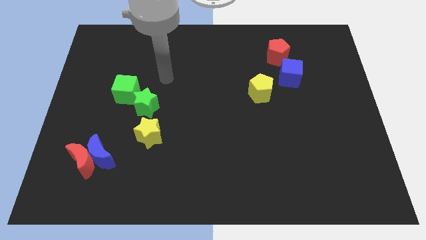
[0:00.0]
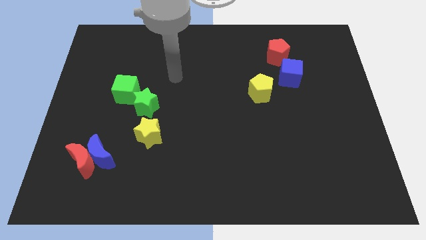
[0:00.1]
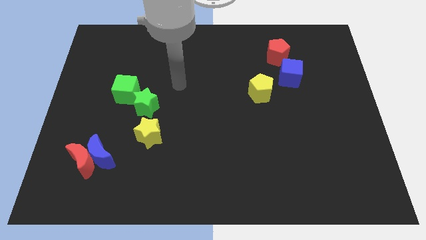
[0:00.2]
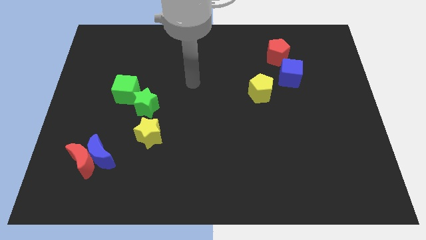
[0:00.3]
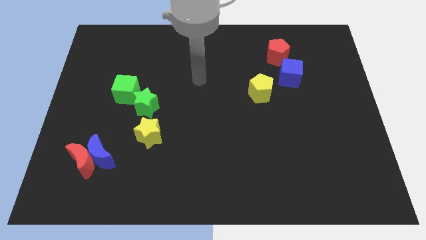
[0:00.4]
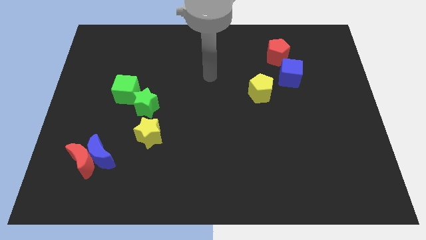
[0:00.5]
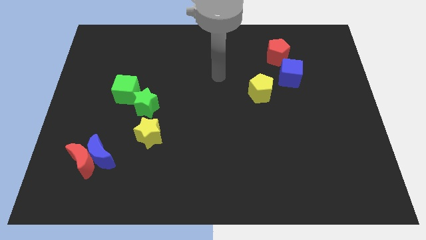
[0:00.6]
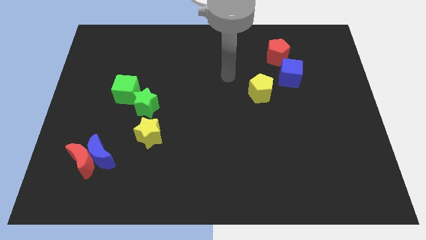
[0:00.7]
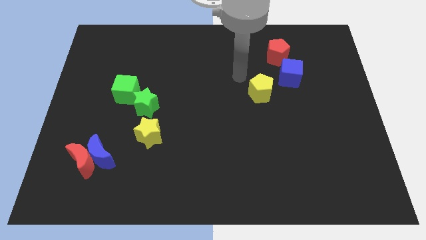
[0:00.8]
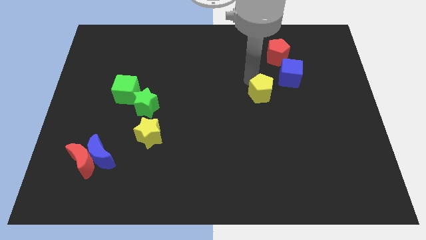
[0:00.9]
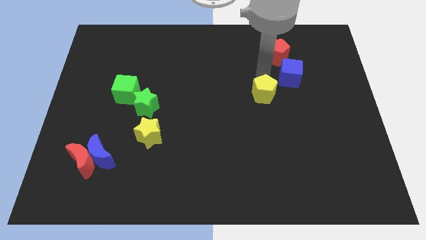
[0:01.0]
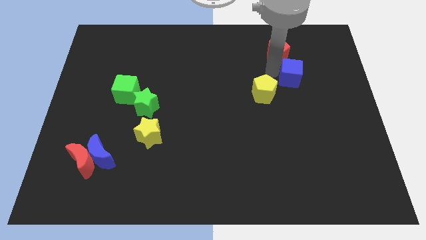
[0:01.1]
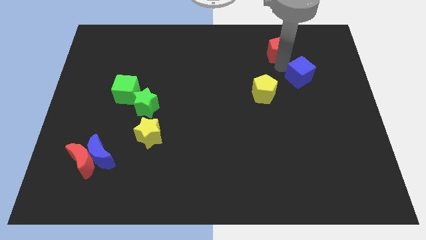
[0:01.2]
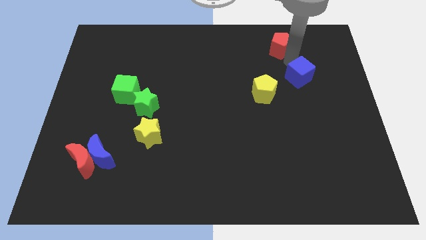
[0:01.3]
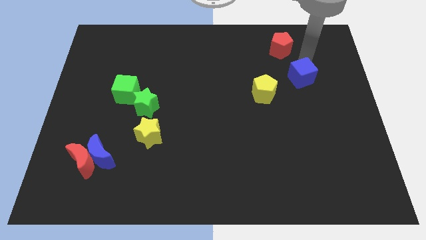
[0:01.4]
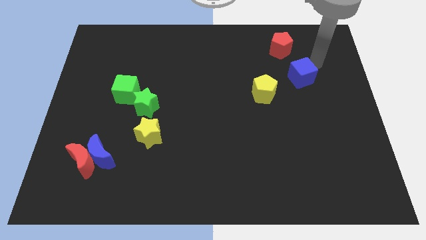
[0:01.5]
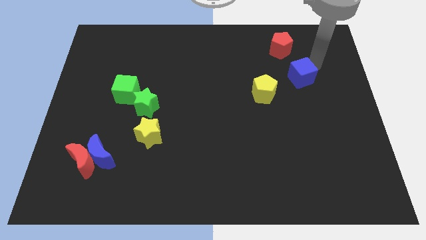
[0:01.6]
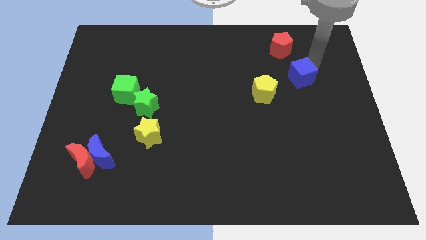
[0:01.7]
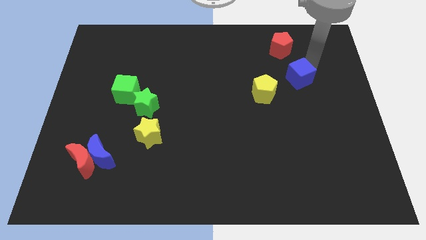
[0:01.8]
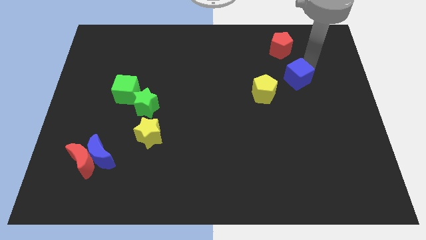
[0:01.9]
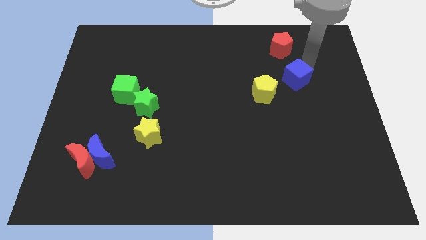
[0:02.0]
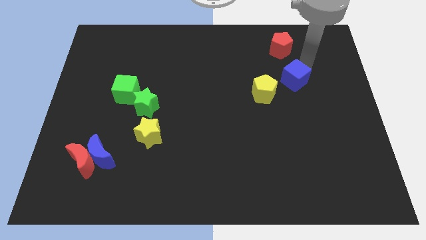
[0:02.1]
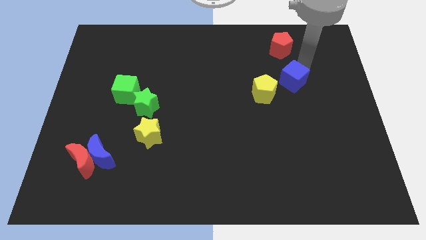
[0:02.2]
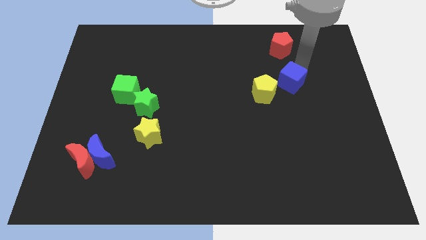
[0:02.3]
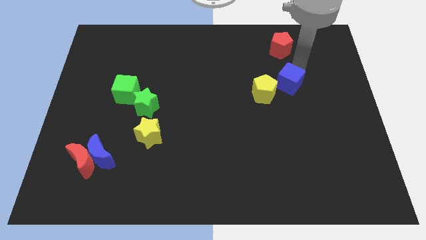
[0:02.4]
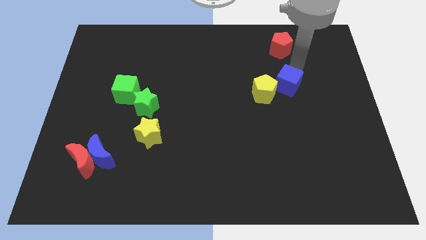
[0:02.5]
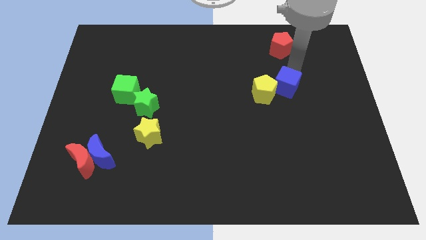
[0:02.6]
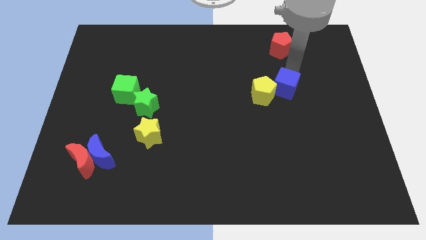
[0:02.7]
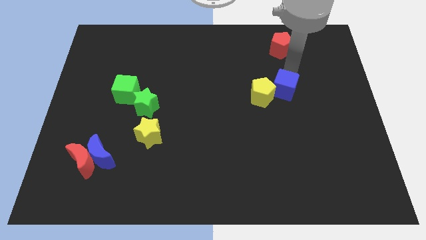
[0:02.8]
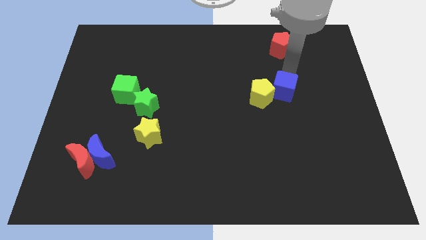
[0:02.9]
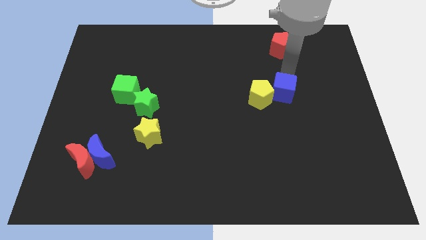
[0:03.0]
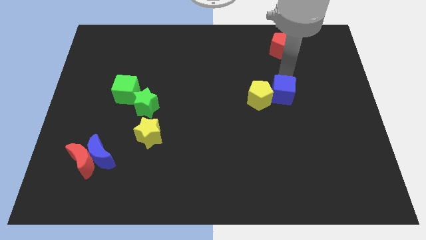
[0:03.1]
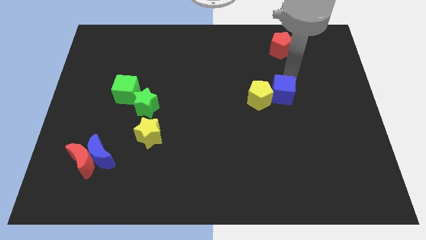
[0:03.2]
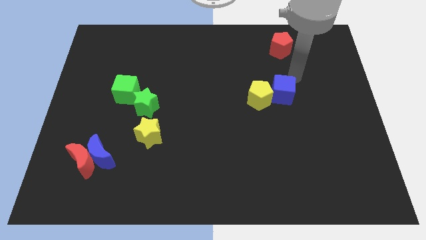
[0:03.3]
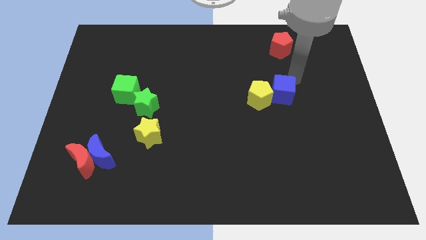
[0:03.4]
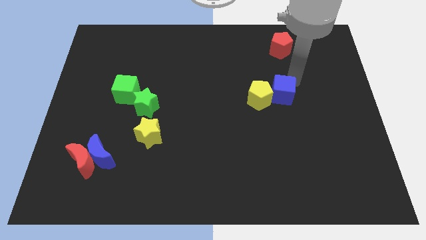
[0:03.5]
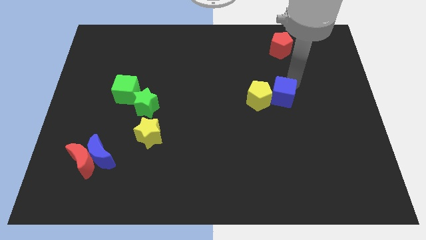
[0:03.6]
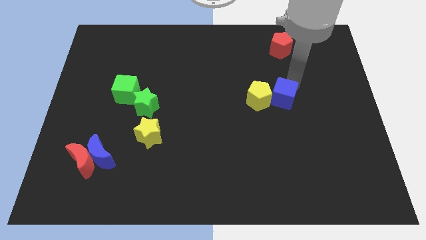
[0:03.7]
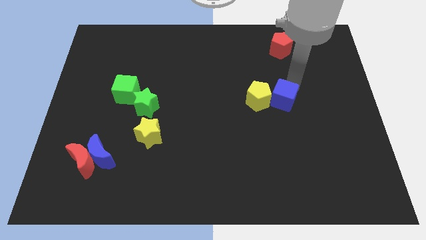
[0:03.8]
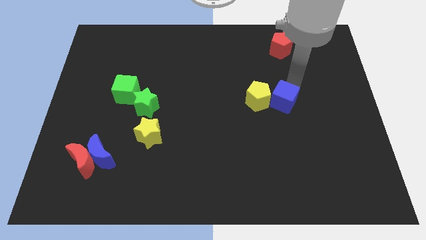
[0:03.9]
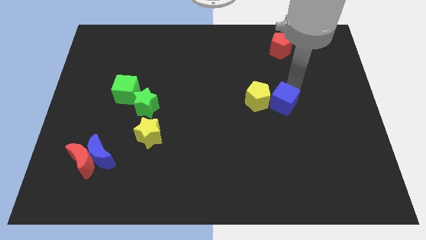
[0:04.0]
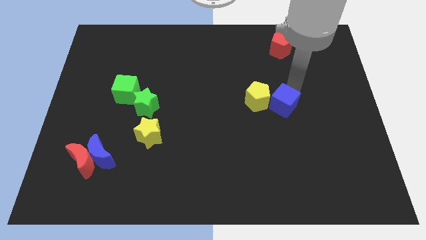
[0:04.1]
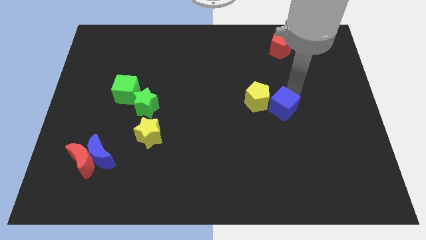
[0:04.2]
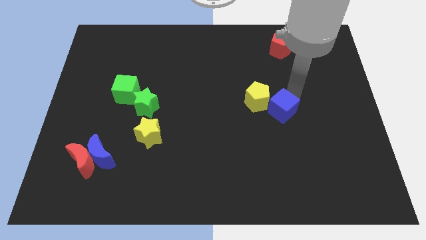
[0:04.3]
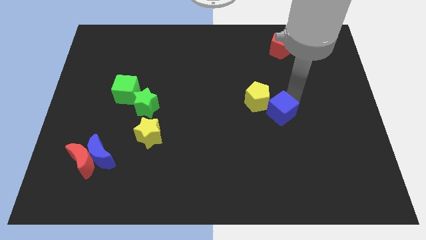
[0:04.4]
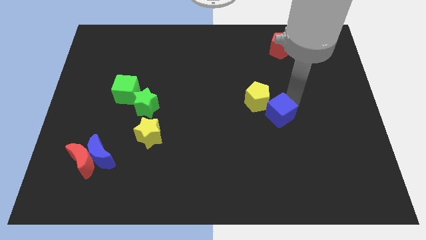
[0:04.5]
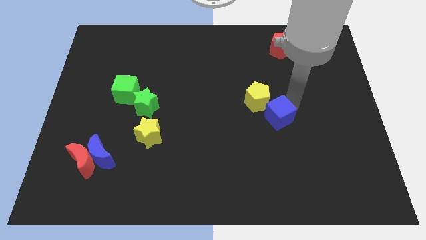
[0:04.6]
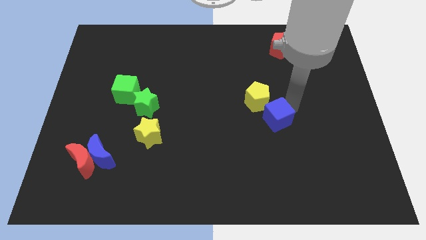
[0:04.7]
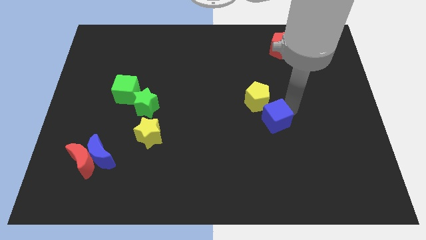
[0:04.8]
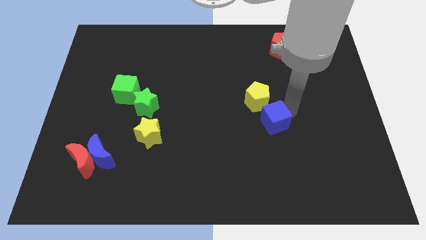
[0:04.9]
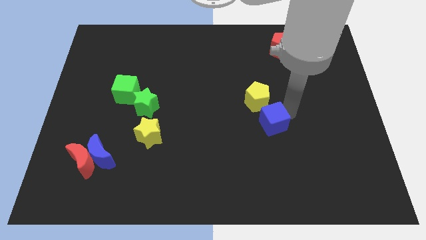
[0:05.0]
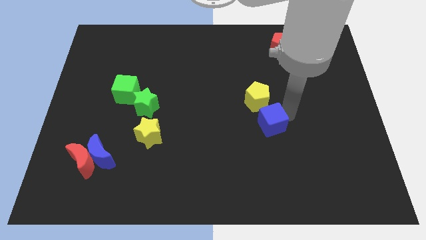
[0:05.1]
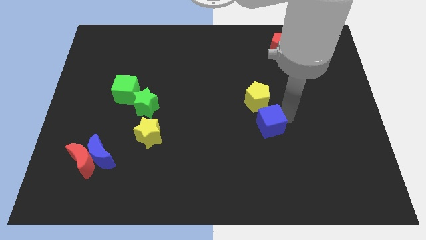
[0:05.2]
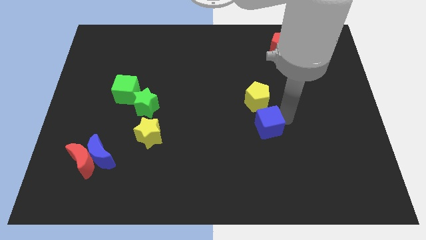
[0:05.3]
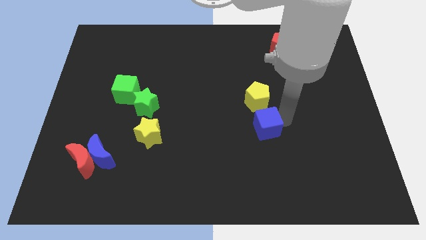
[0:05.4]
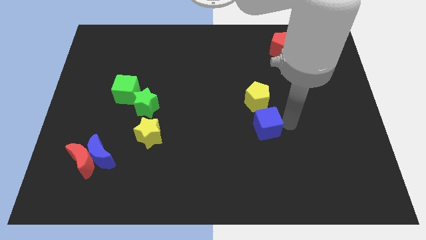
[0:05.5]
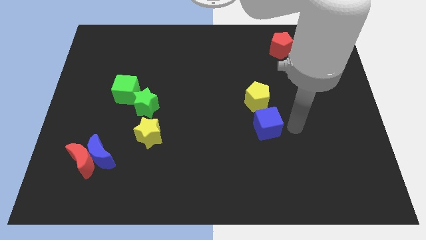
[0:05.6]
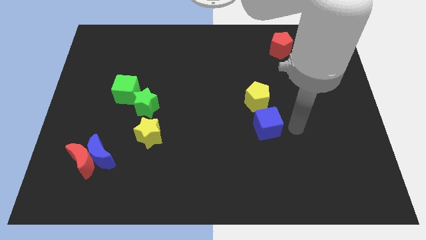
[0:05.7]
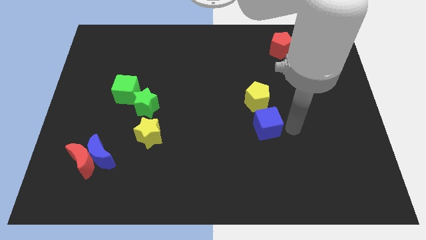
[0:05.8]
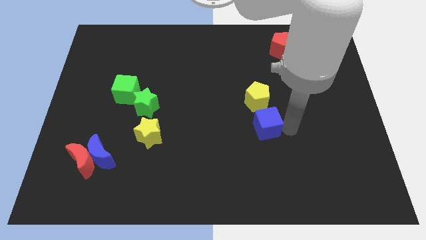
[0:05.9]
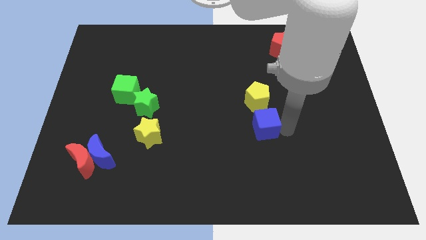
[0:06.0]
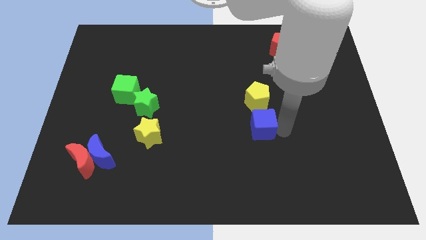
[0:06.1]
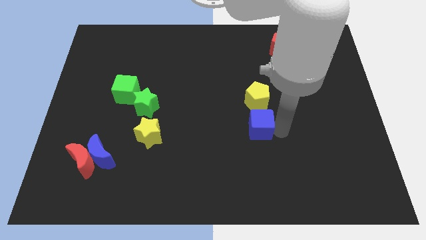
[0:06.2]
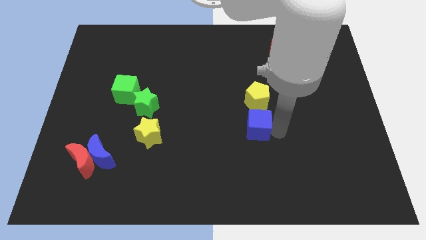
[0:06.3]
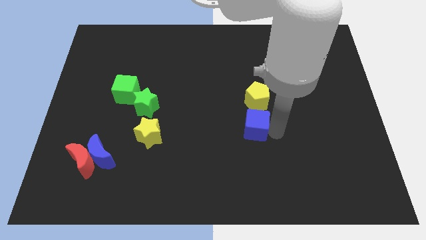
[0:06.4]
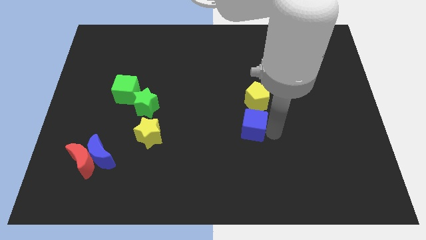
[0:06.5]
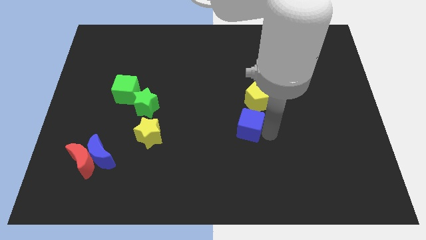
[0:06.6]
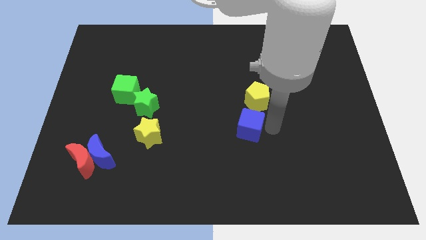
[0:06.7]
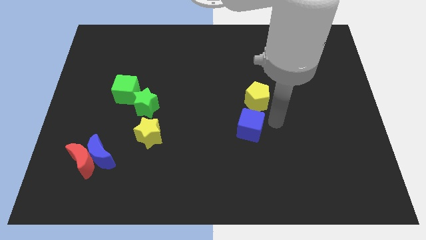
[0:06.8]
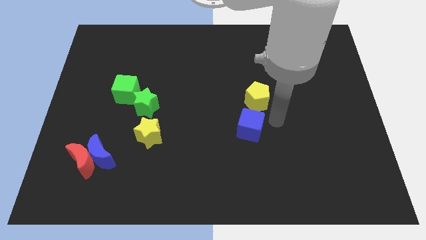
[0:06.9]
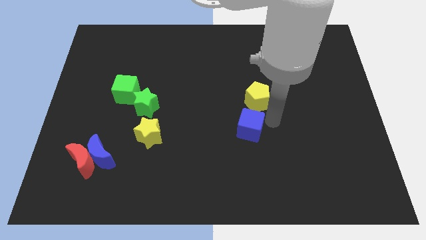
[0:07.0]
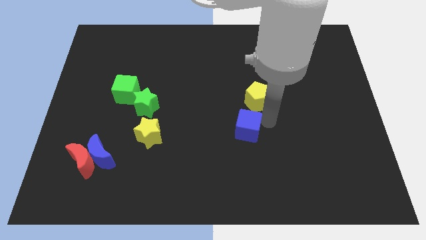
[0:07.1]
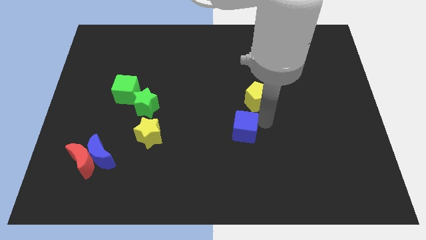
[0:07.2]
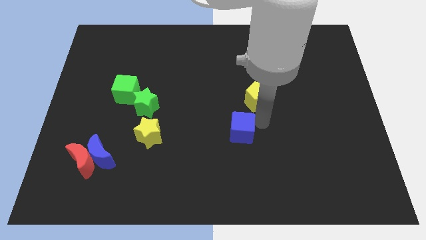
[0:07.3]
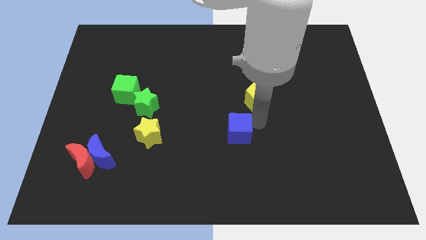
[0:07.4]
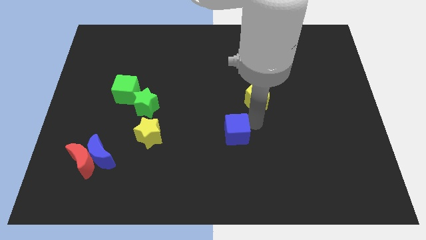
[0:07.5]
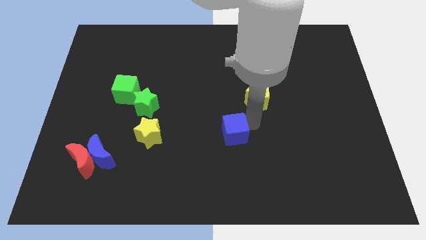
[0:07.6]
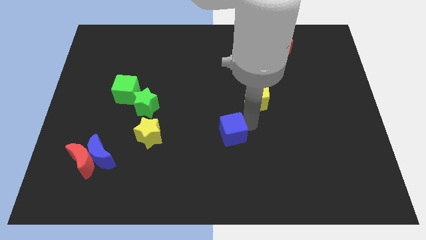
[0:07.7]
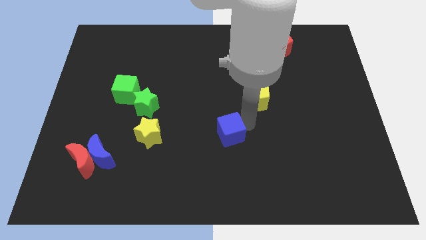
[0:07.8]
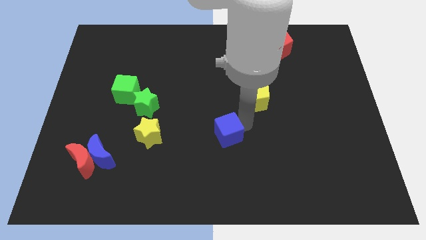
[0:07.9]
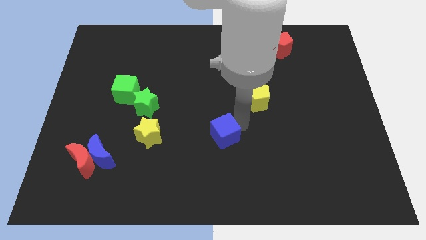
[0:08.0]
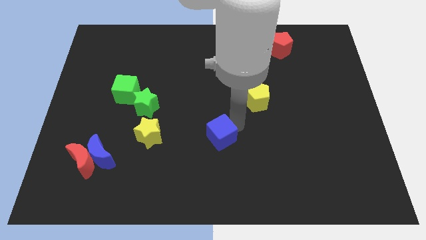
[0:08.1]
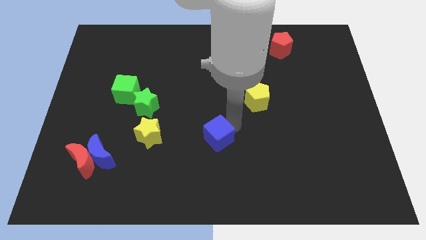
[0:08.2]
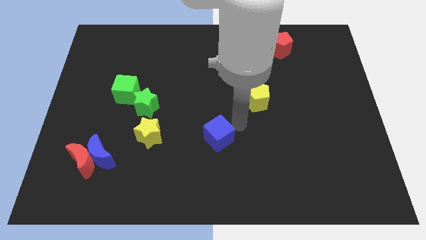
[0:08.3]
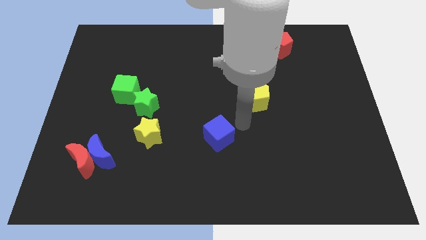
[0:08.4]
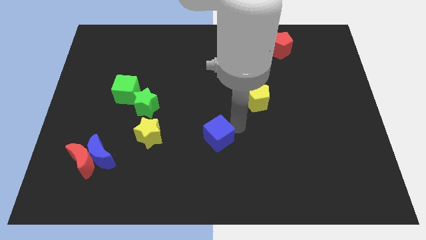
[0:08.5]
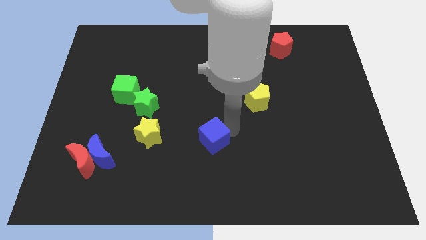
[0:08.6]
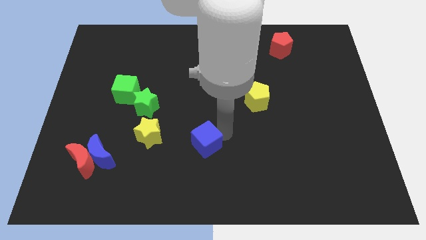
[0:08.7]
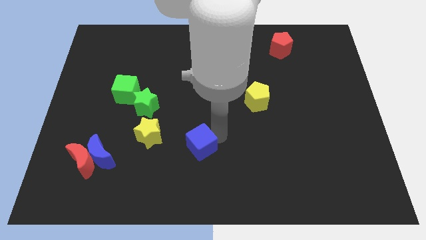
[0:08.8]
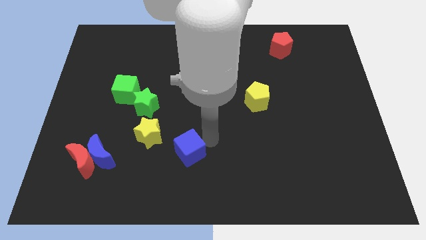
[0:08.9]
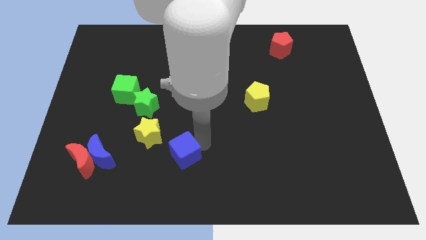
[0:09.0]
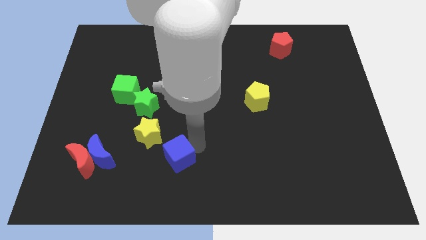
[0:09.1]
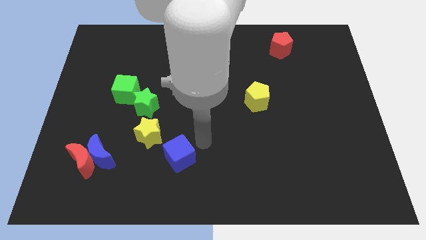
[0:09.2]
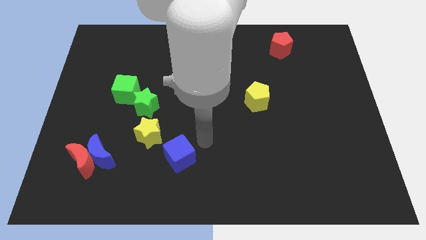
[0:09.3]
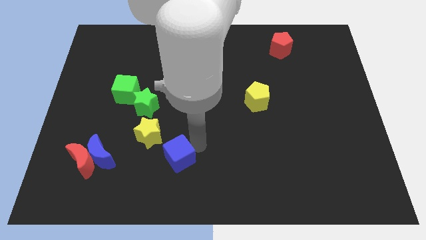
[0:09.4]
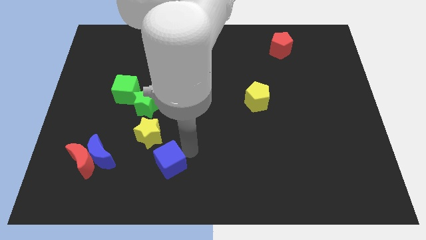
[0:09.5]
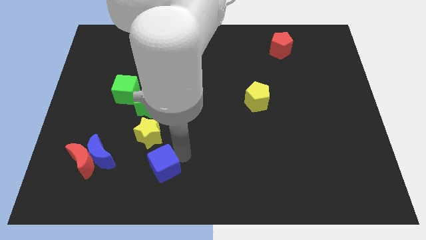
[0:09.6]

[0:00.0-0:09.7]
move the blue cube below the yellow star
